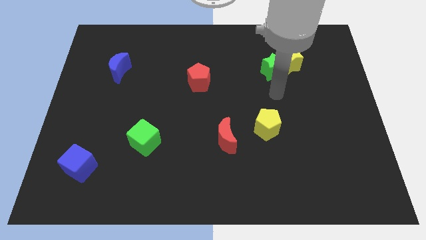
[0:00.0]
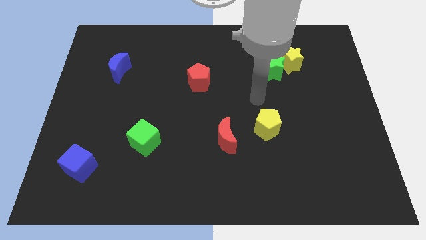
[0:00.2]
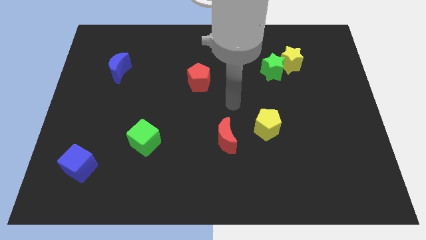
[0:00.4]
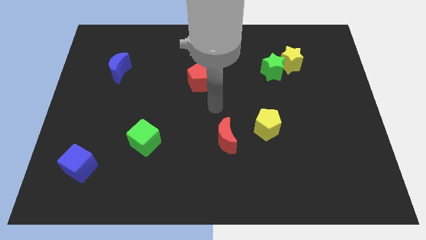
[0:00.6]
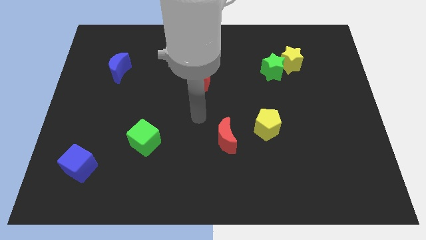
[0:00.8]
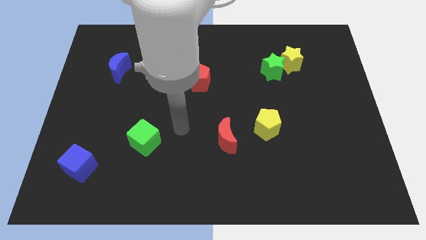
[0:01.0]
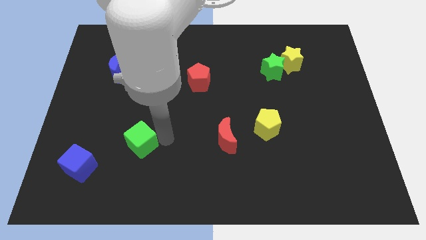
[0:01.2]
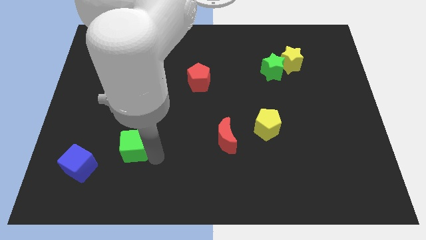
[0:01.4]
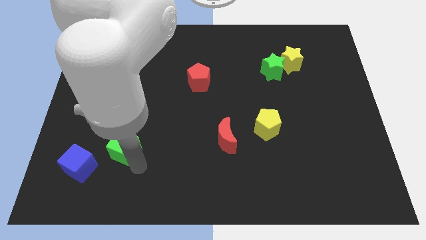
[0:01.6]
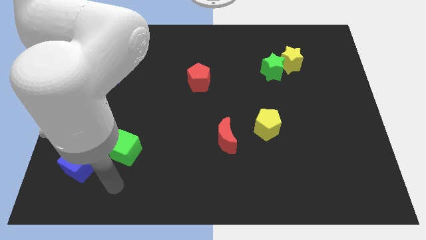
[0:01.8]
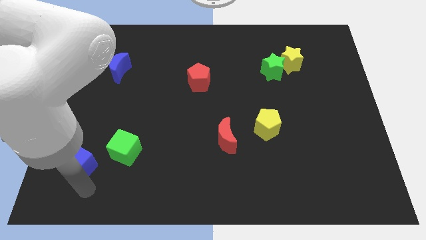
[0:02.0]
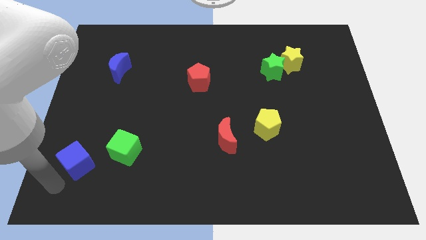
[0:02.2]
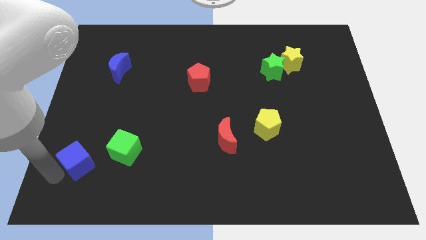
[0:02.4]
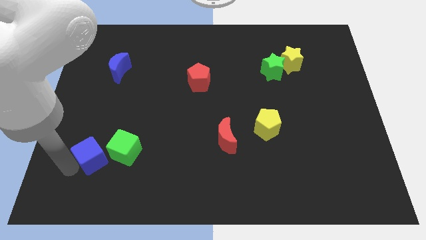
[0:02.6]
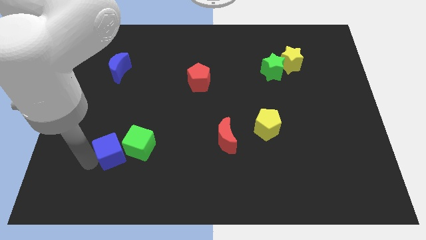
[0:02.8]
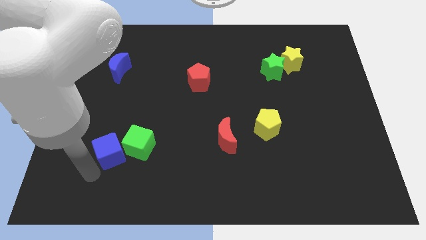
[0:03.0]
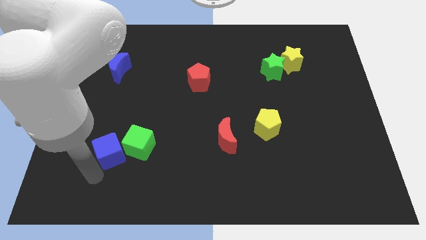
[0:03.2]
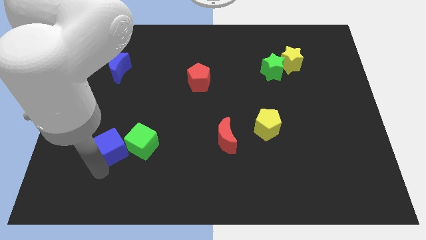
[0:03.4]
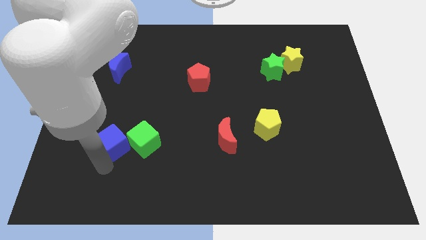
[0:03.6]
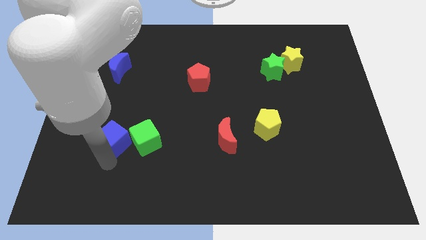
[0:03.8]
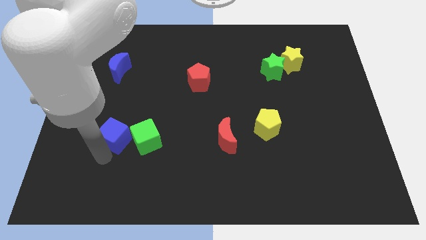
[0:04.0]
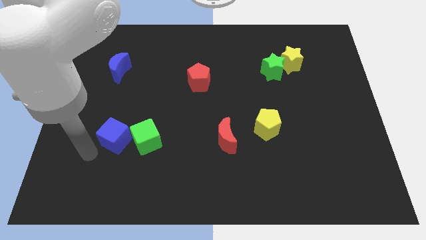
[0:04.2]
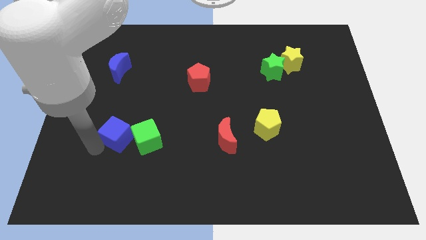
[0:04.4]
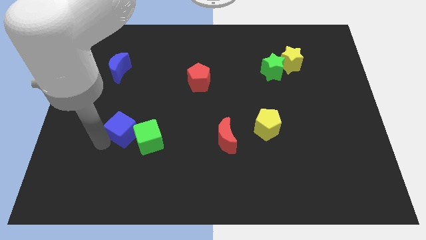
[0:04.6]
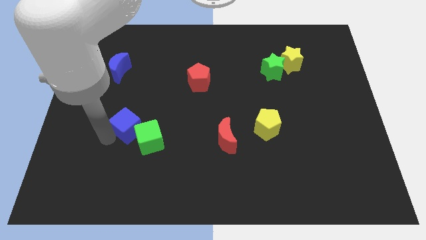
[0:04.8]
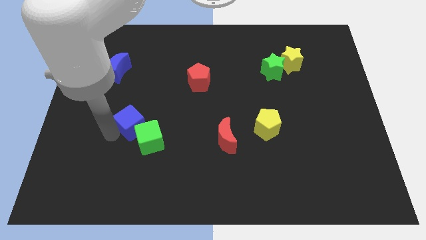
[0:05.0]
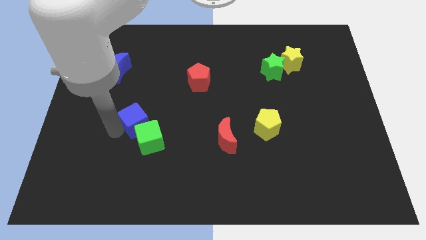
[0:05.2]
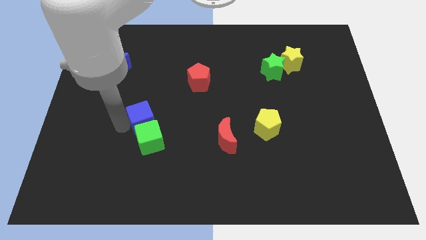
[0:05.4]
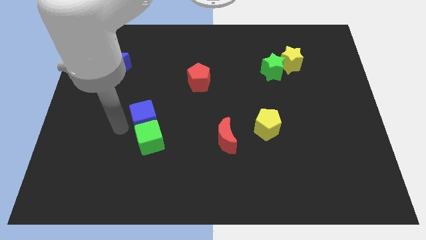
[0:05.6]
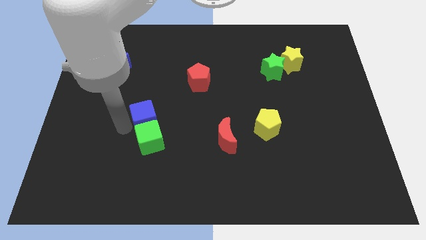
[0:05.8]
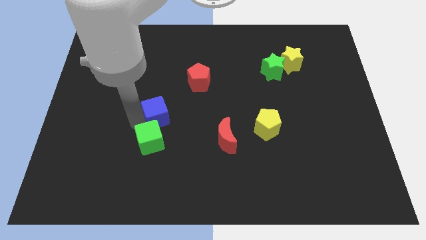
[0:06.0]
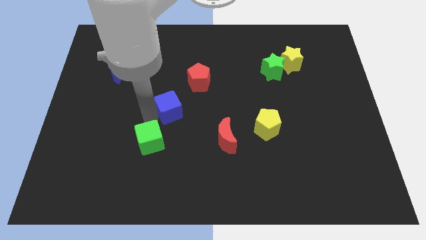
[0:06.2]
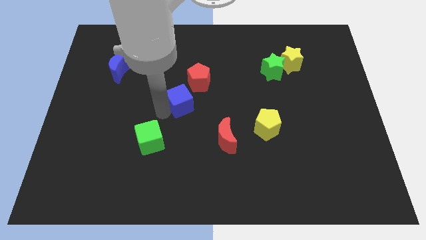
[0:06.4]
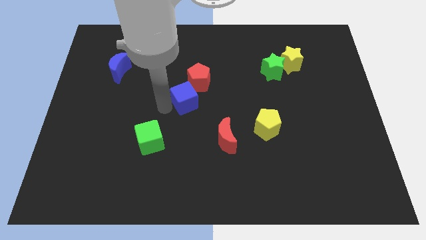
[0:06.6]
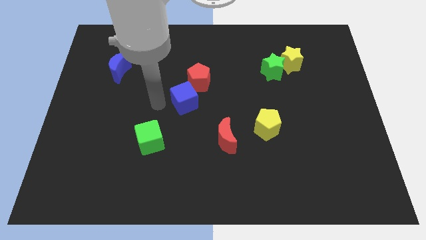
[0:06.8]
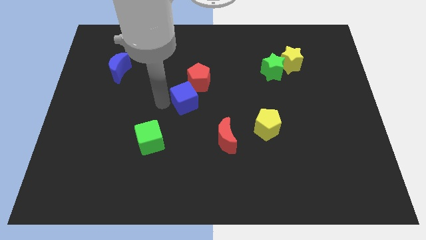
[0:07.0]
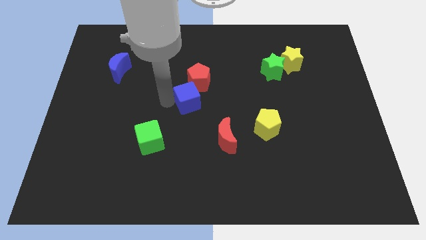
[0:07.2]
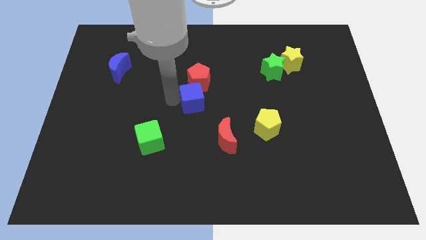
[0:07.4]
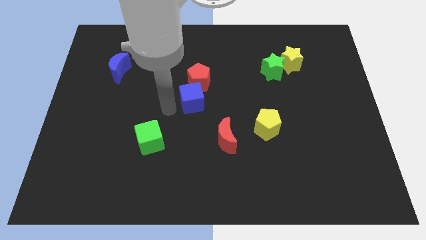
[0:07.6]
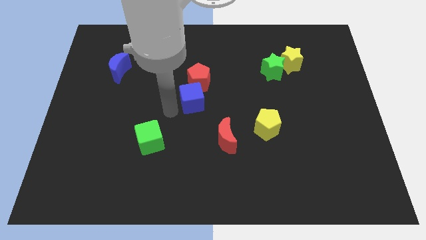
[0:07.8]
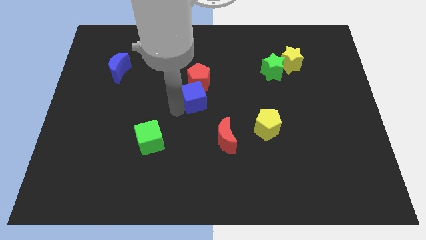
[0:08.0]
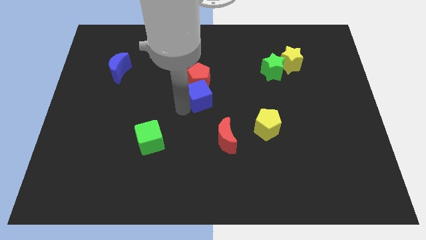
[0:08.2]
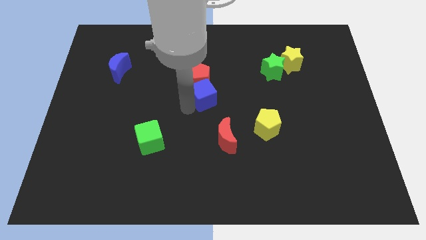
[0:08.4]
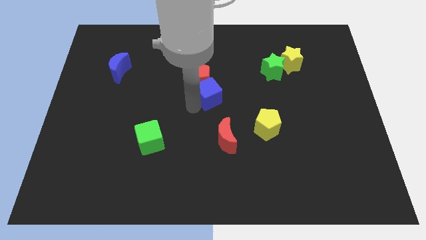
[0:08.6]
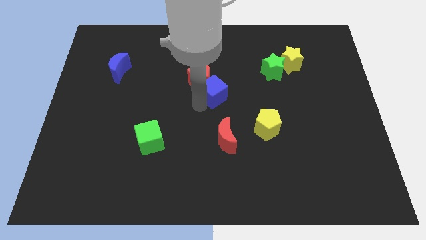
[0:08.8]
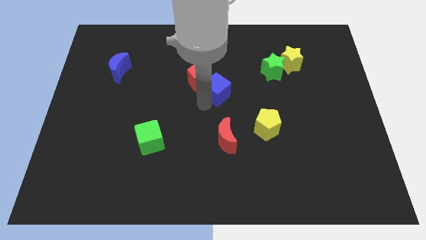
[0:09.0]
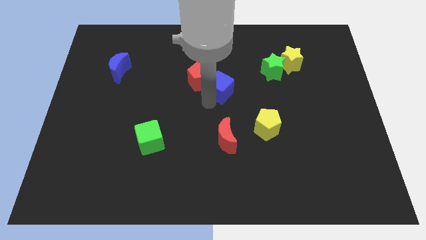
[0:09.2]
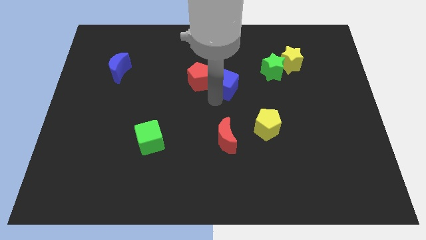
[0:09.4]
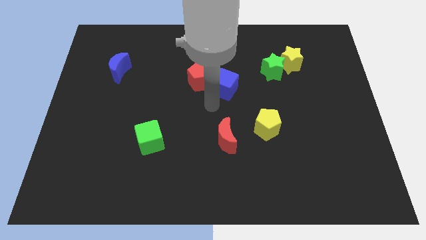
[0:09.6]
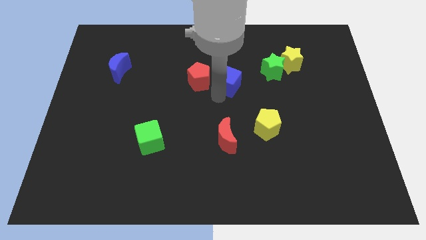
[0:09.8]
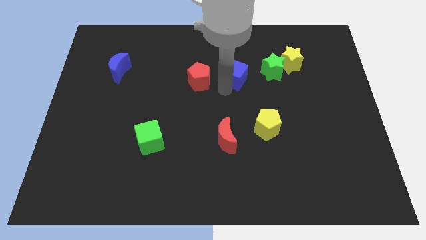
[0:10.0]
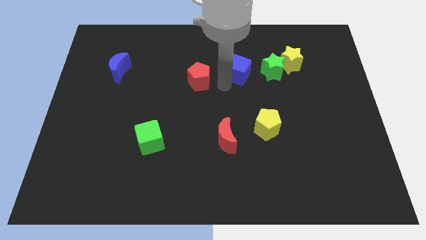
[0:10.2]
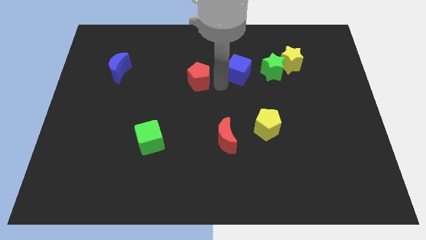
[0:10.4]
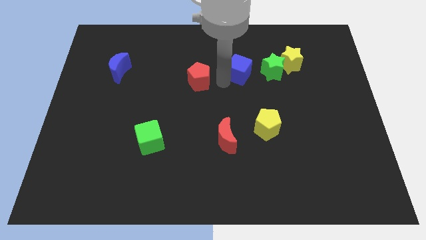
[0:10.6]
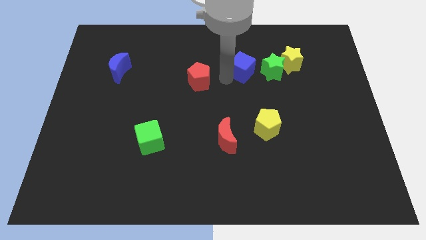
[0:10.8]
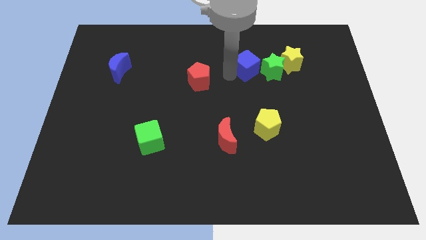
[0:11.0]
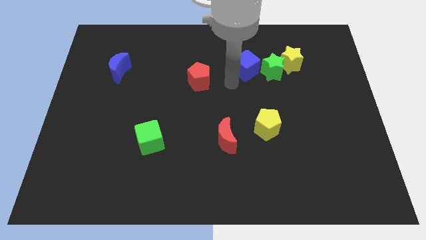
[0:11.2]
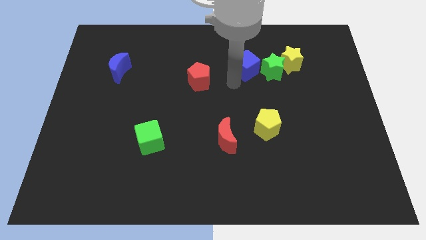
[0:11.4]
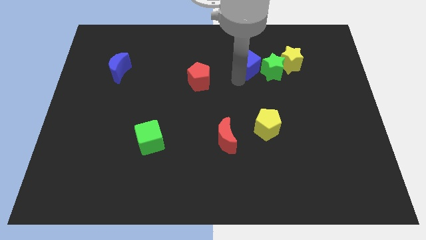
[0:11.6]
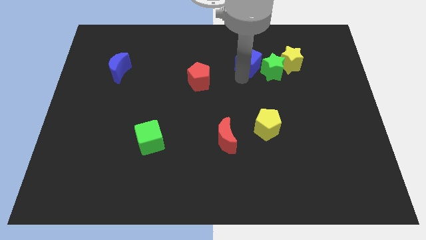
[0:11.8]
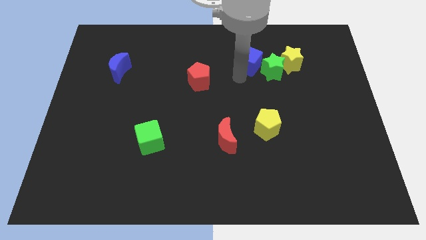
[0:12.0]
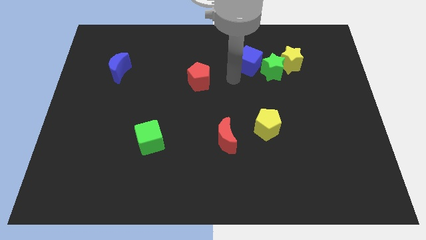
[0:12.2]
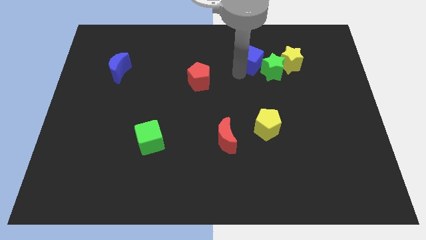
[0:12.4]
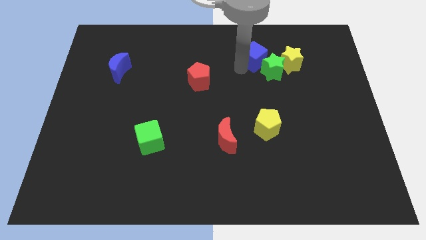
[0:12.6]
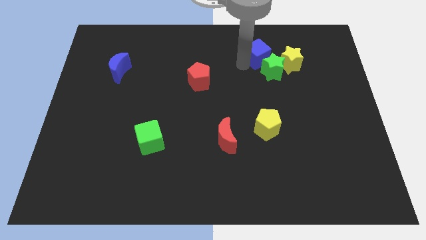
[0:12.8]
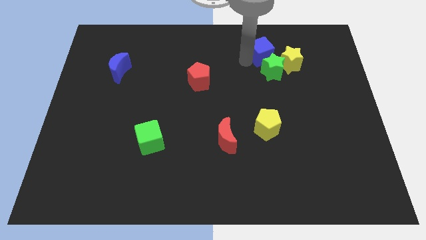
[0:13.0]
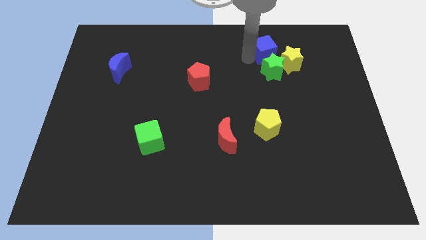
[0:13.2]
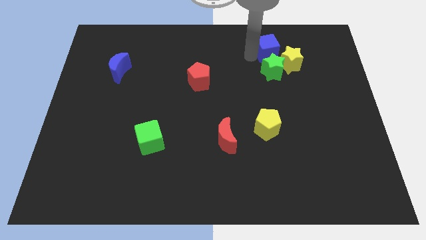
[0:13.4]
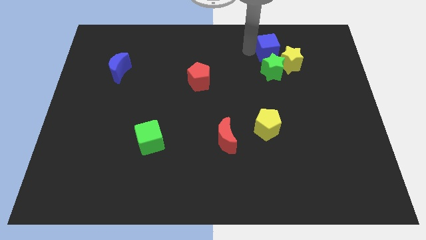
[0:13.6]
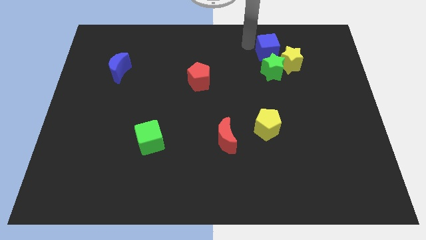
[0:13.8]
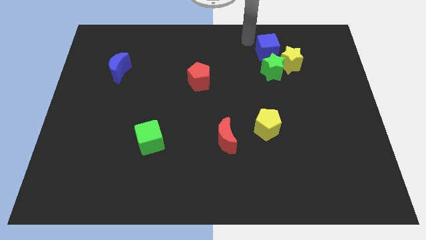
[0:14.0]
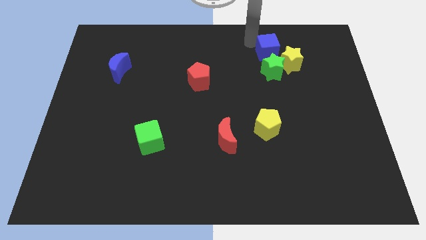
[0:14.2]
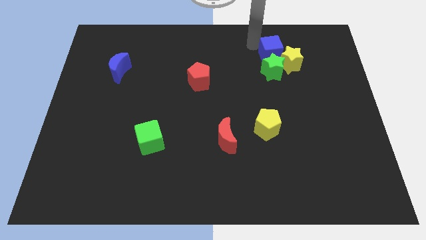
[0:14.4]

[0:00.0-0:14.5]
put the blue cube to the yellow star

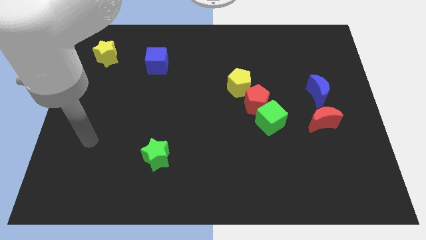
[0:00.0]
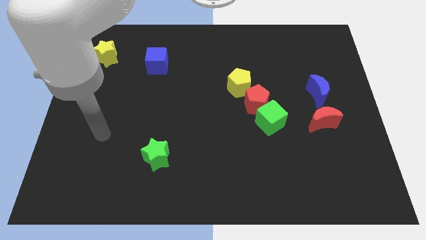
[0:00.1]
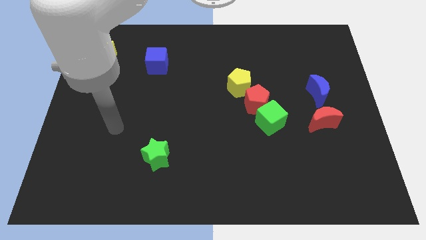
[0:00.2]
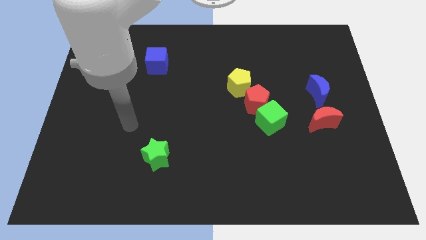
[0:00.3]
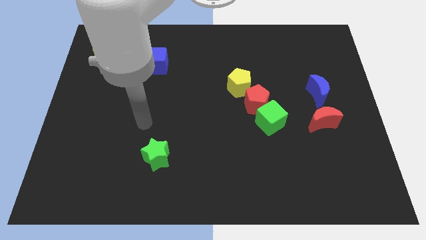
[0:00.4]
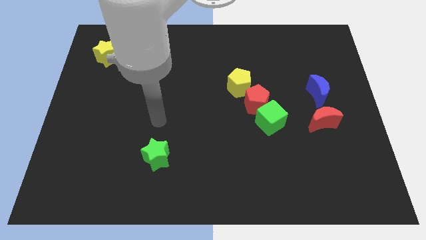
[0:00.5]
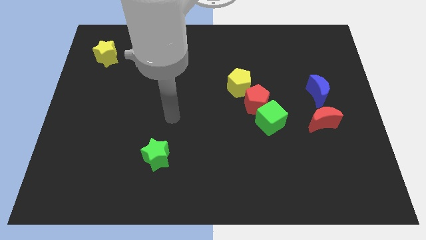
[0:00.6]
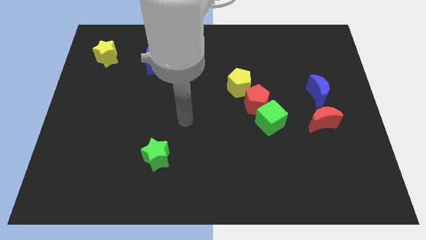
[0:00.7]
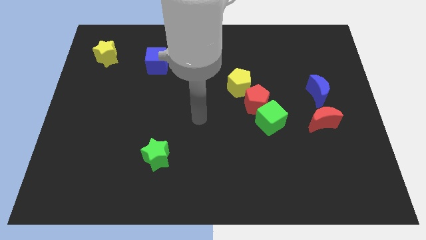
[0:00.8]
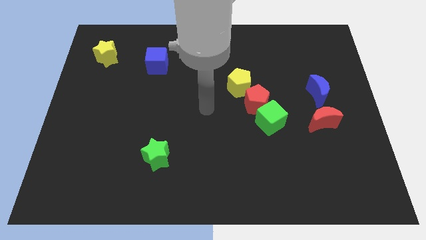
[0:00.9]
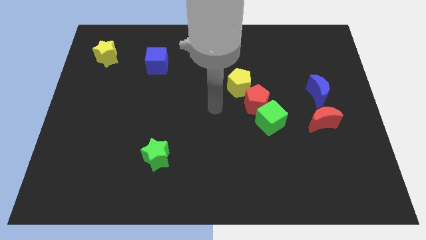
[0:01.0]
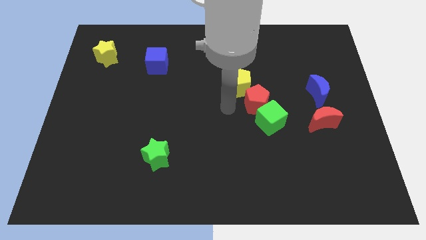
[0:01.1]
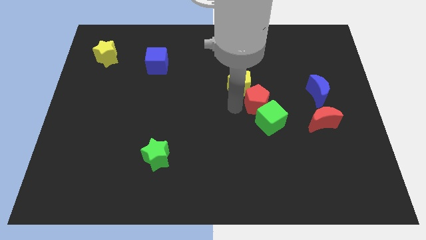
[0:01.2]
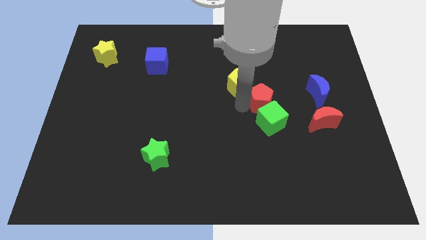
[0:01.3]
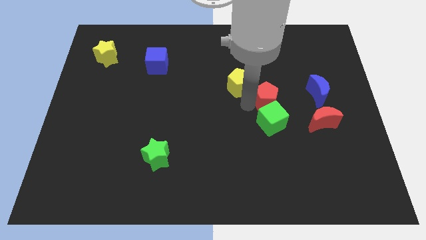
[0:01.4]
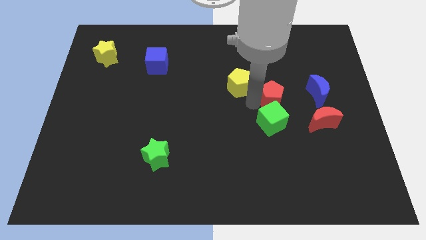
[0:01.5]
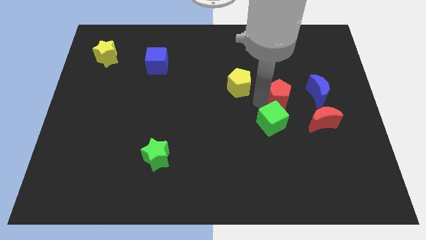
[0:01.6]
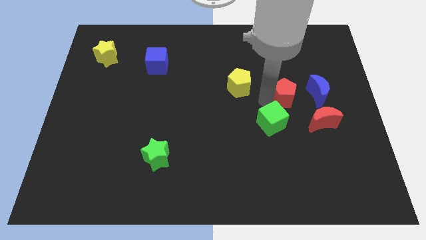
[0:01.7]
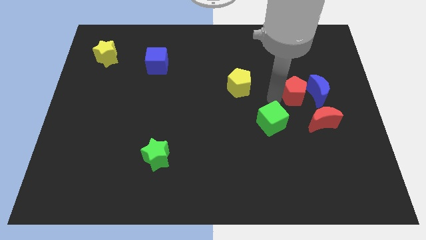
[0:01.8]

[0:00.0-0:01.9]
put the red pentagon towards the blue moon
